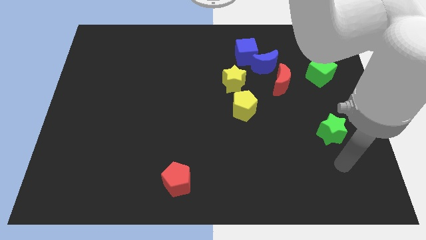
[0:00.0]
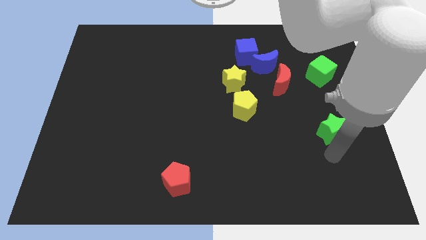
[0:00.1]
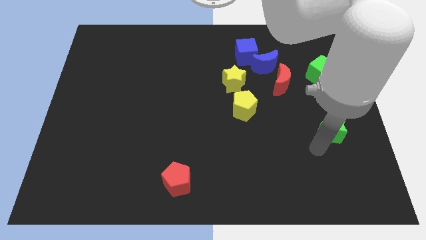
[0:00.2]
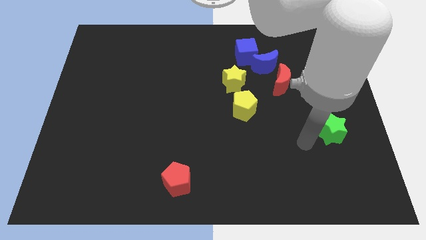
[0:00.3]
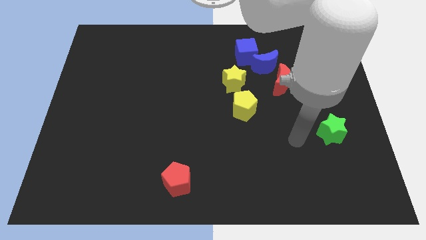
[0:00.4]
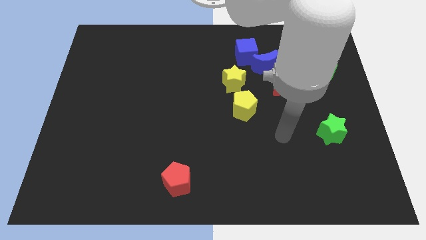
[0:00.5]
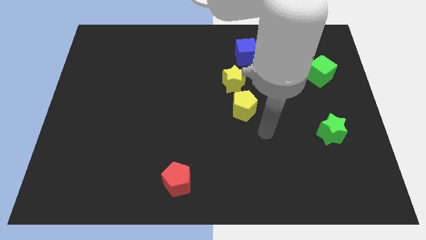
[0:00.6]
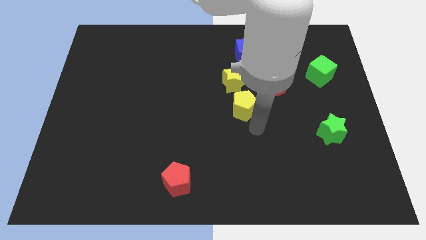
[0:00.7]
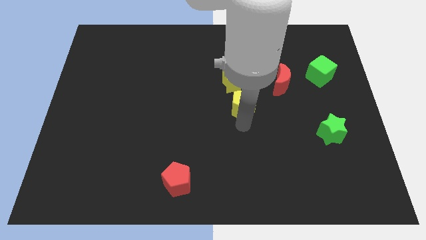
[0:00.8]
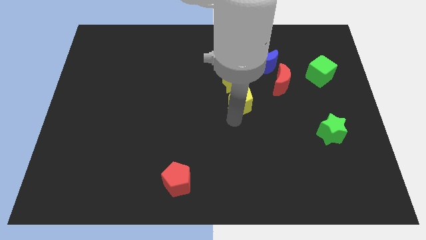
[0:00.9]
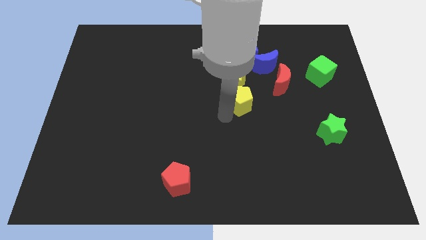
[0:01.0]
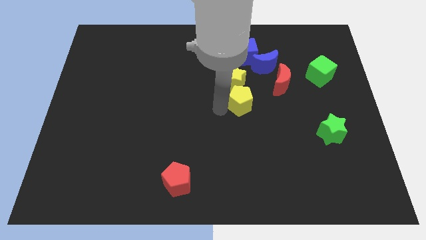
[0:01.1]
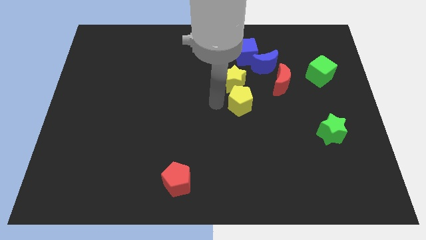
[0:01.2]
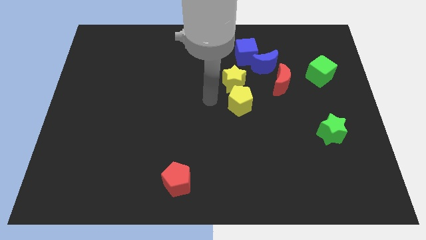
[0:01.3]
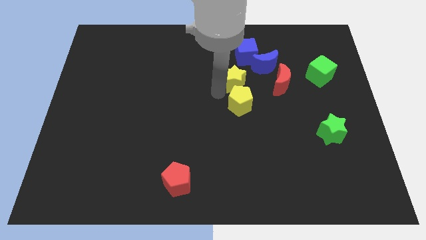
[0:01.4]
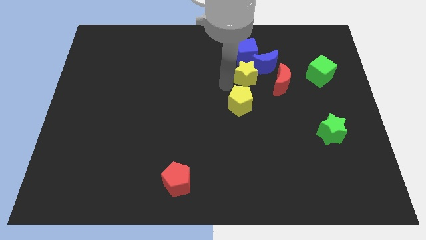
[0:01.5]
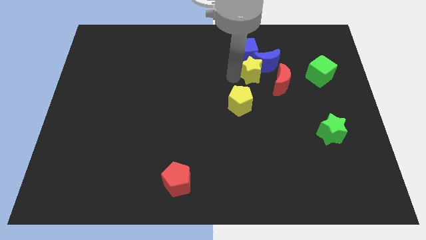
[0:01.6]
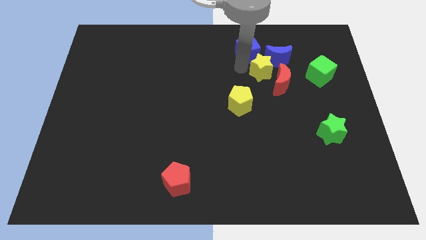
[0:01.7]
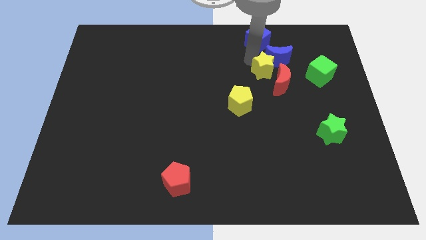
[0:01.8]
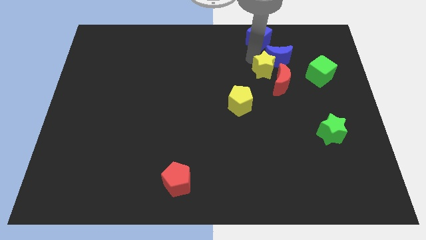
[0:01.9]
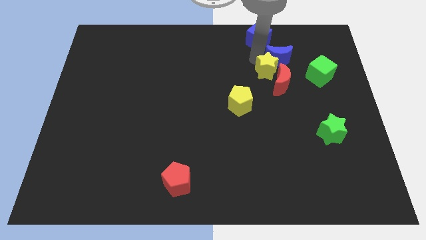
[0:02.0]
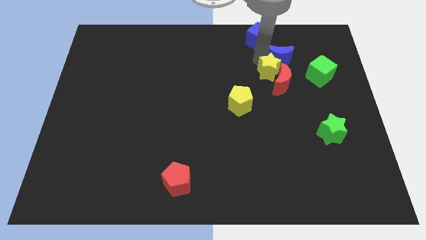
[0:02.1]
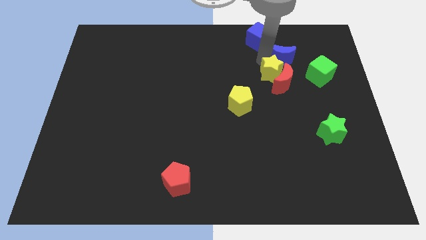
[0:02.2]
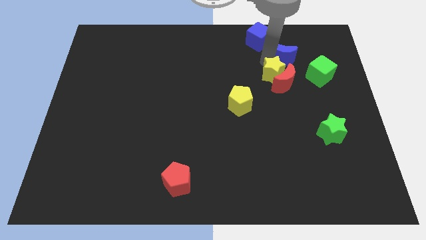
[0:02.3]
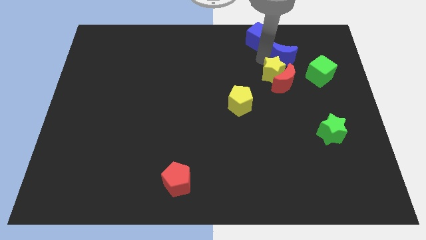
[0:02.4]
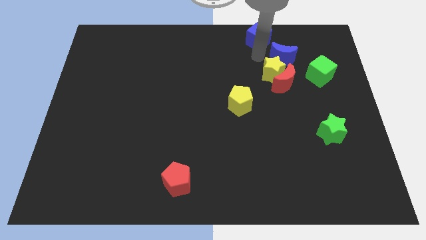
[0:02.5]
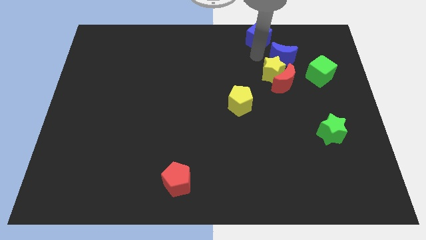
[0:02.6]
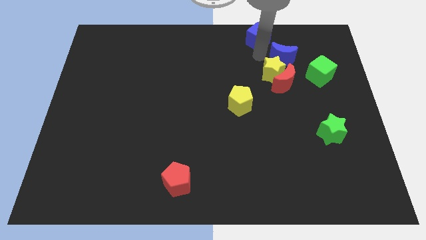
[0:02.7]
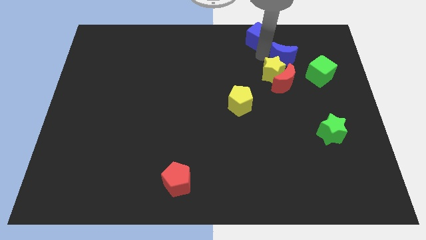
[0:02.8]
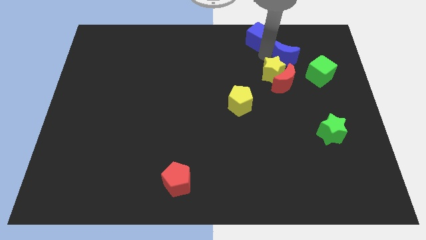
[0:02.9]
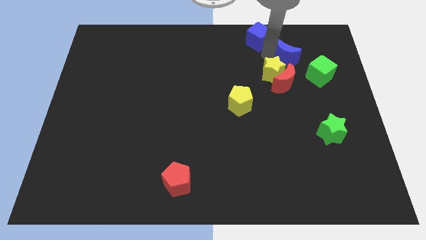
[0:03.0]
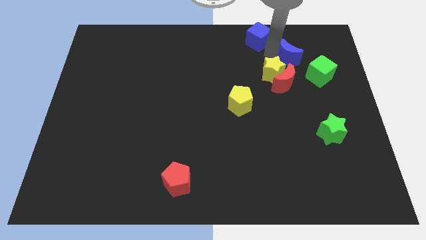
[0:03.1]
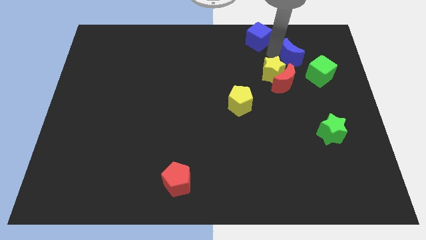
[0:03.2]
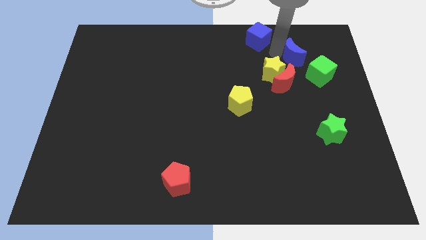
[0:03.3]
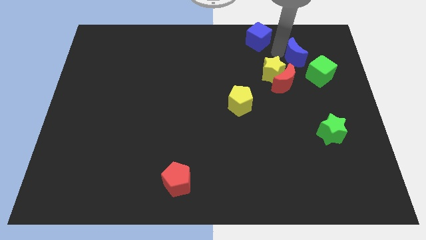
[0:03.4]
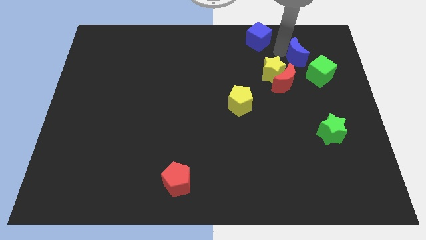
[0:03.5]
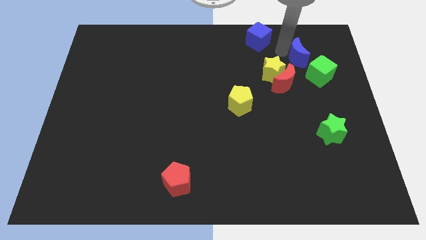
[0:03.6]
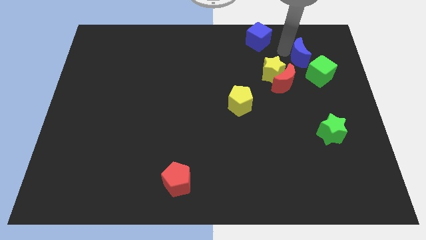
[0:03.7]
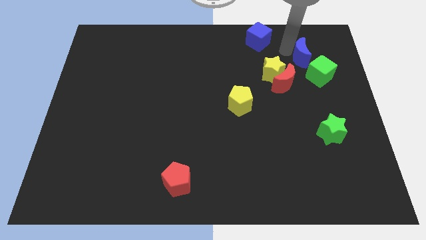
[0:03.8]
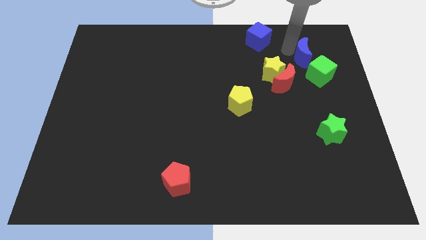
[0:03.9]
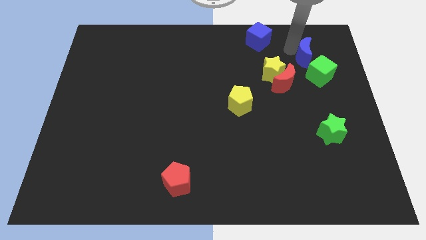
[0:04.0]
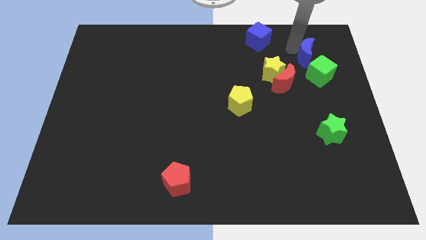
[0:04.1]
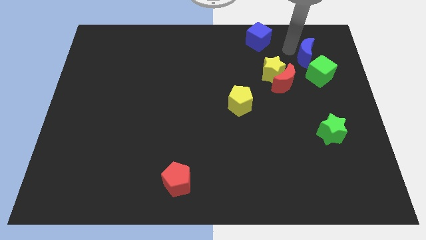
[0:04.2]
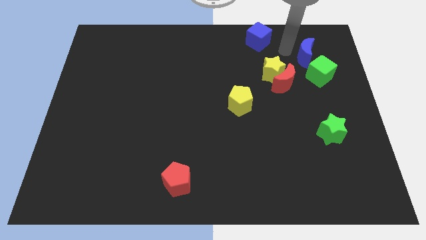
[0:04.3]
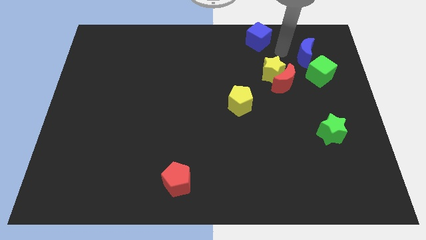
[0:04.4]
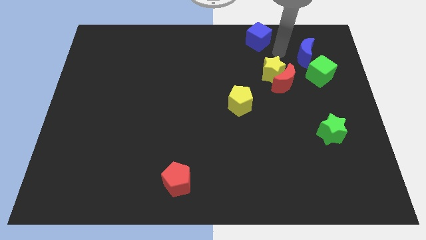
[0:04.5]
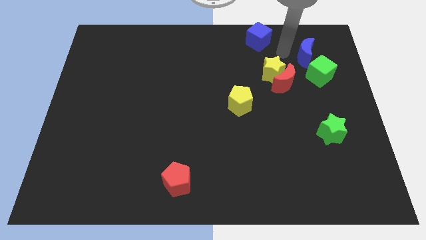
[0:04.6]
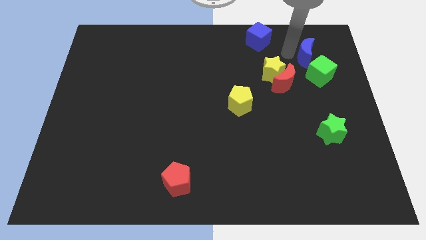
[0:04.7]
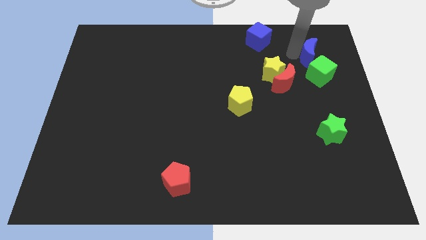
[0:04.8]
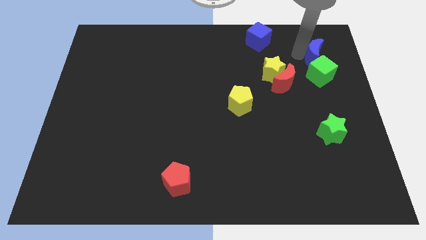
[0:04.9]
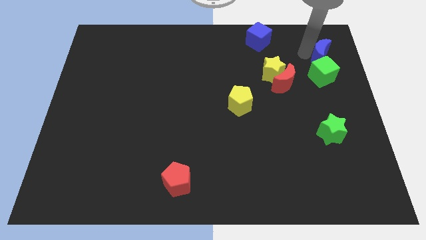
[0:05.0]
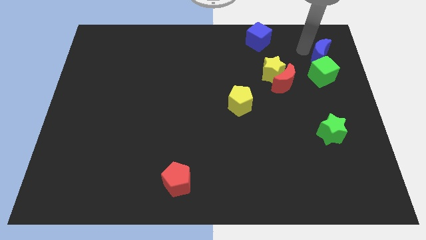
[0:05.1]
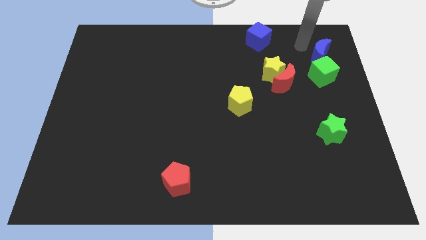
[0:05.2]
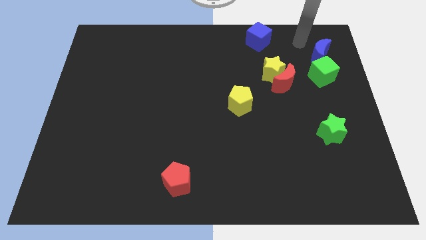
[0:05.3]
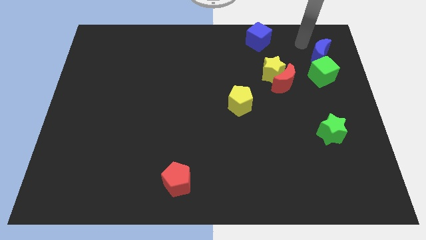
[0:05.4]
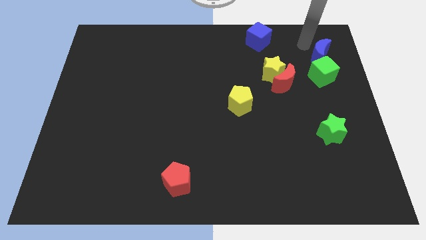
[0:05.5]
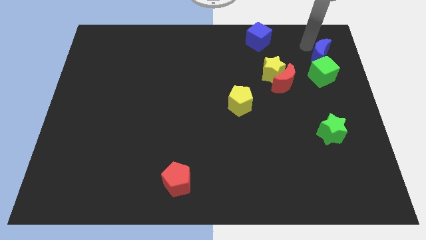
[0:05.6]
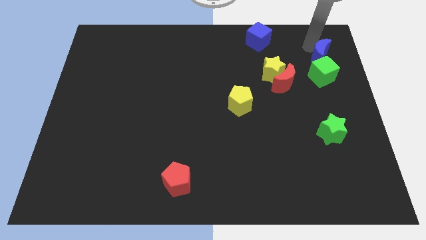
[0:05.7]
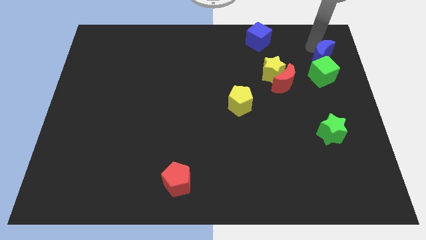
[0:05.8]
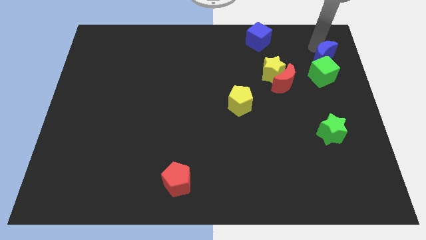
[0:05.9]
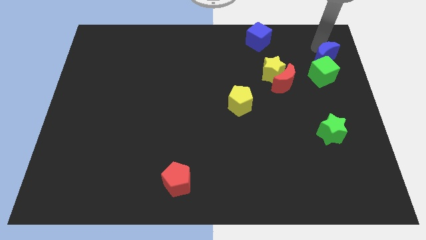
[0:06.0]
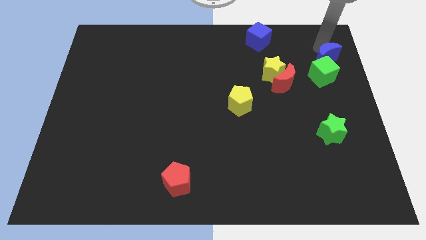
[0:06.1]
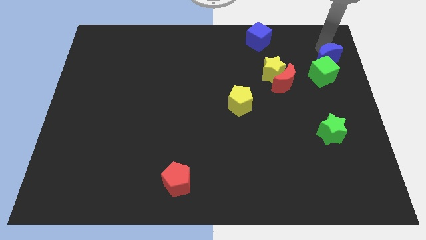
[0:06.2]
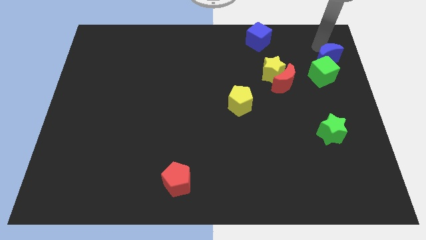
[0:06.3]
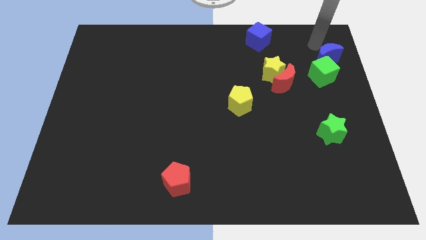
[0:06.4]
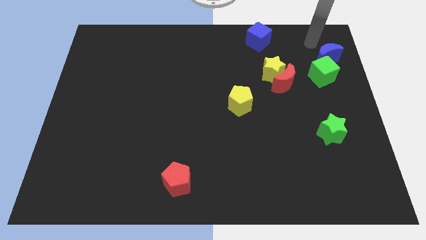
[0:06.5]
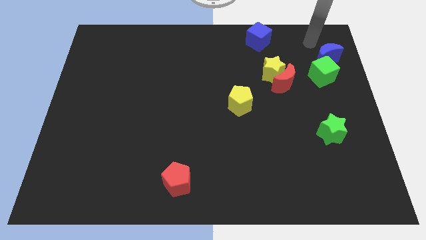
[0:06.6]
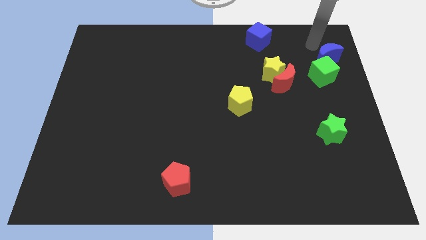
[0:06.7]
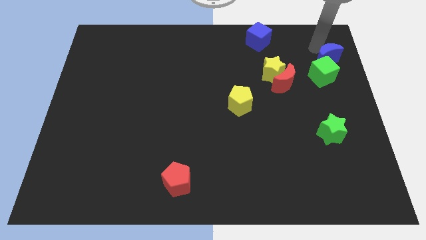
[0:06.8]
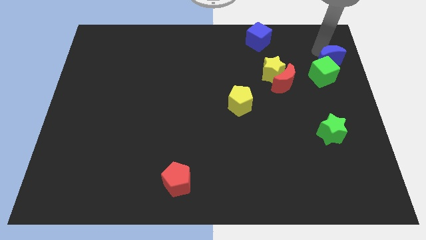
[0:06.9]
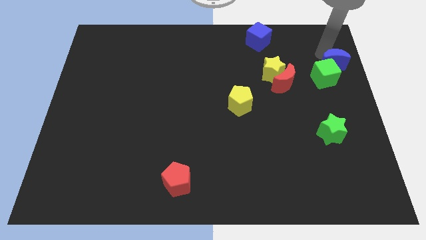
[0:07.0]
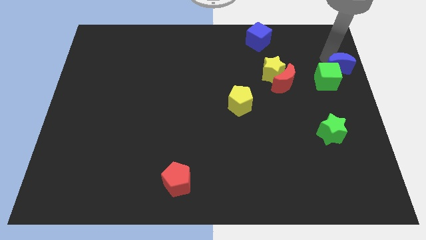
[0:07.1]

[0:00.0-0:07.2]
put the blue moon to the center right
